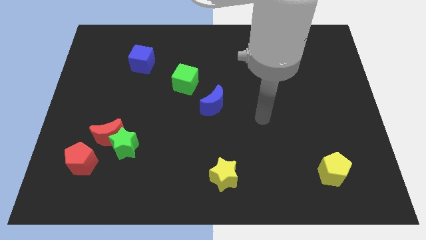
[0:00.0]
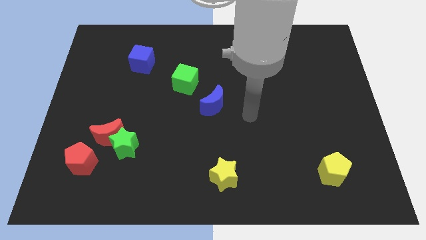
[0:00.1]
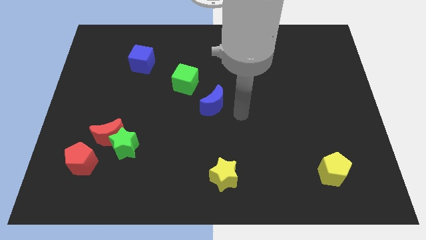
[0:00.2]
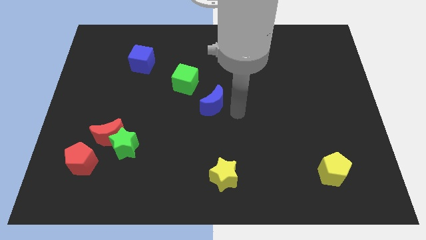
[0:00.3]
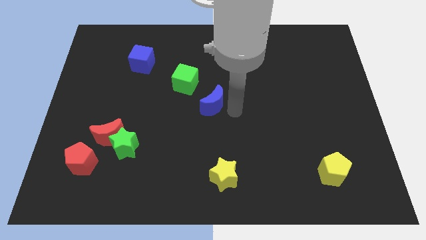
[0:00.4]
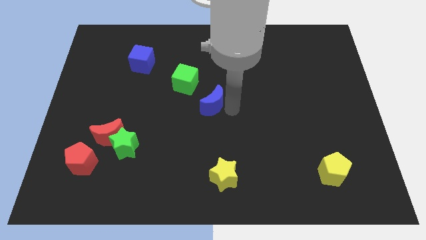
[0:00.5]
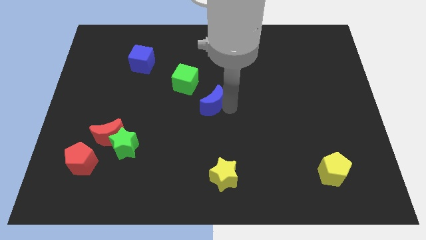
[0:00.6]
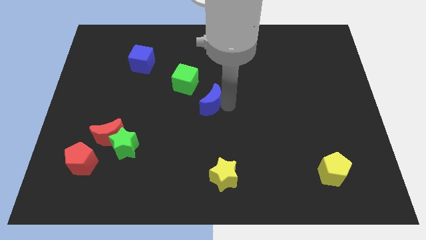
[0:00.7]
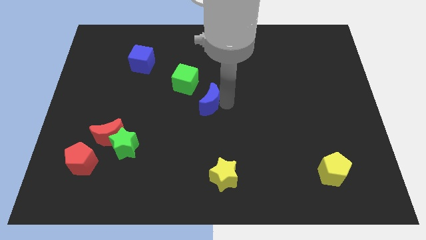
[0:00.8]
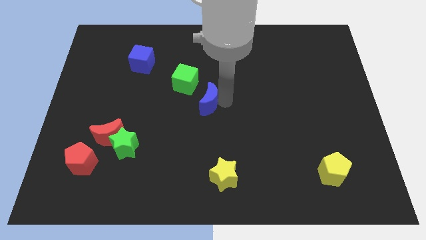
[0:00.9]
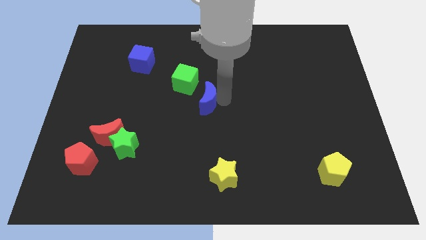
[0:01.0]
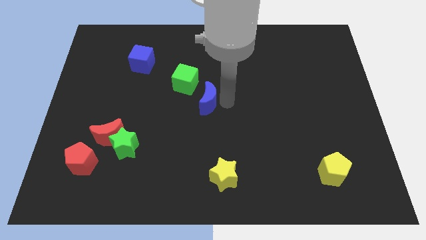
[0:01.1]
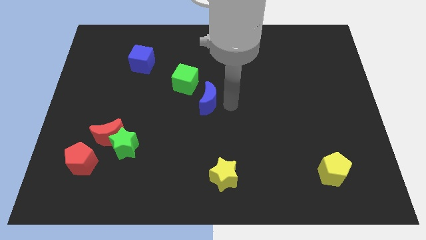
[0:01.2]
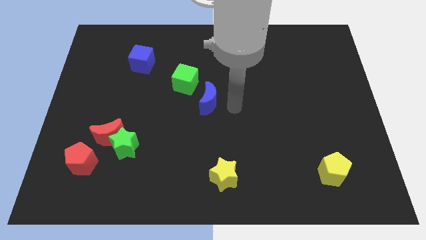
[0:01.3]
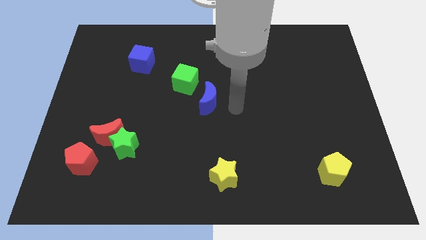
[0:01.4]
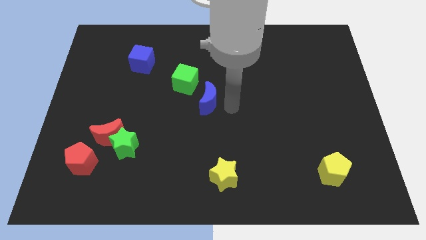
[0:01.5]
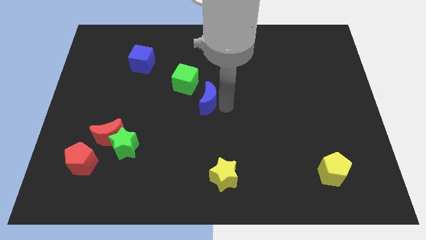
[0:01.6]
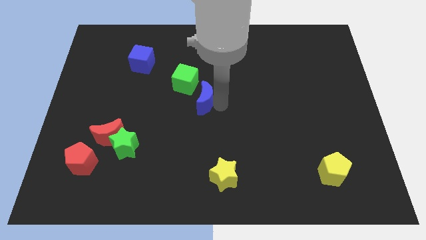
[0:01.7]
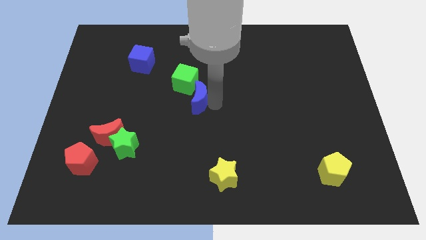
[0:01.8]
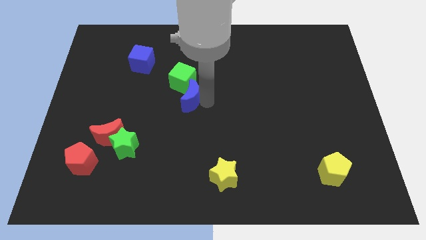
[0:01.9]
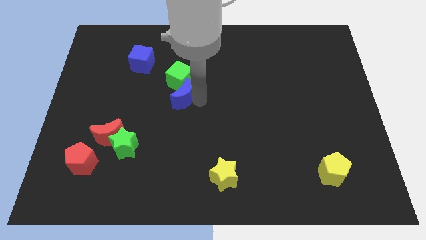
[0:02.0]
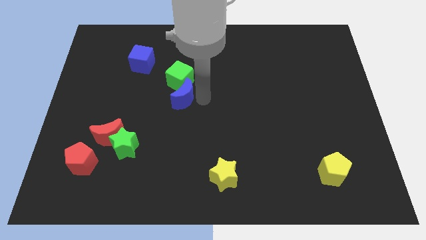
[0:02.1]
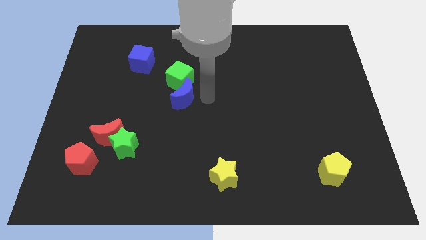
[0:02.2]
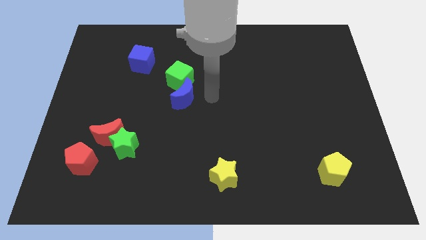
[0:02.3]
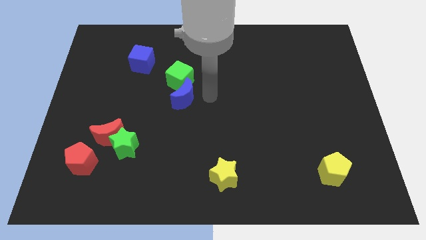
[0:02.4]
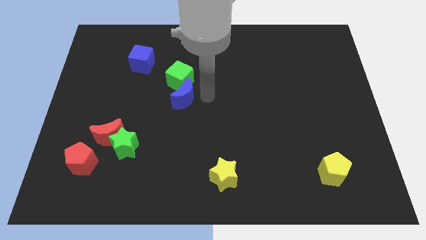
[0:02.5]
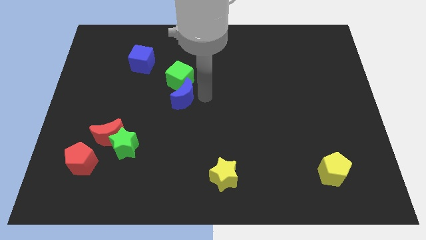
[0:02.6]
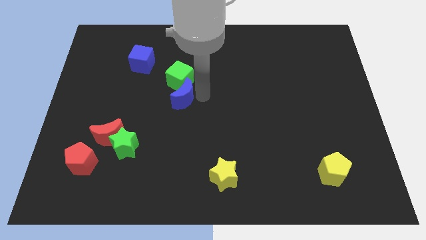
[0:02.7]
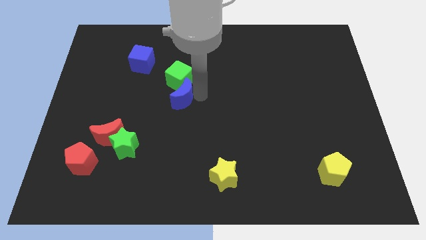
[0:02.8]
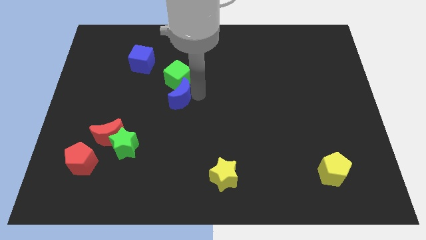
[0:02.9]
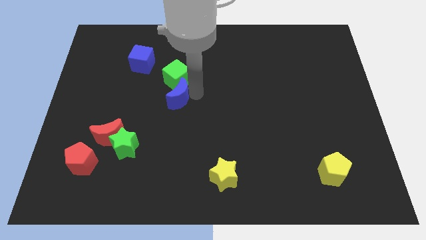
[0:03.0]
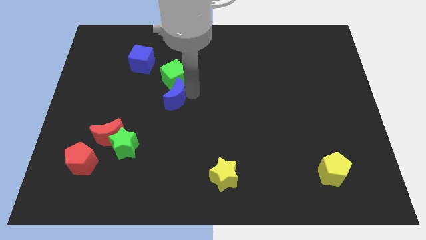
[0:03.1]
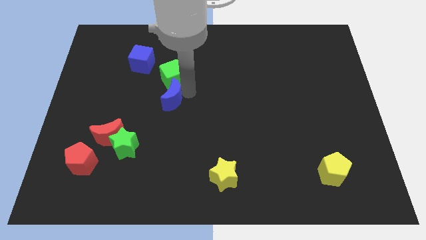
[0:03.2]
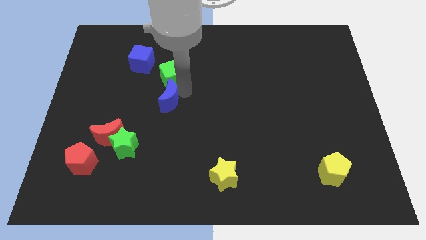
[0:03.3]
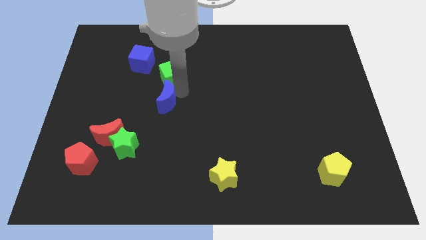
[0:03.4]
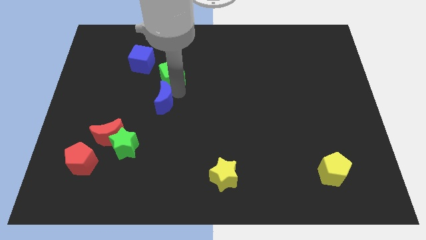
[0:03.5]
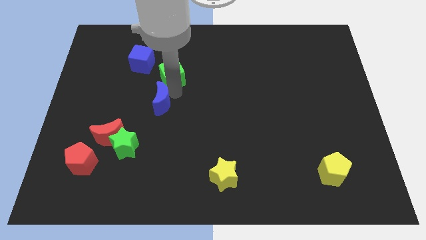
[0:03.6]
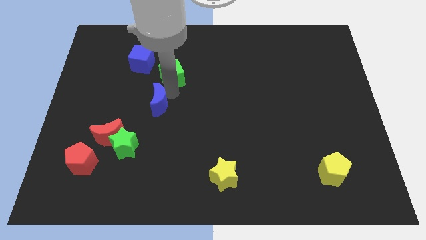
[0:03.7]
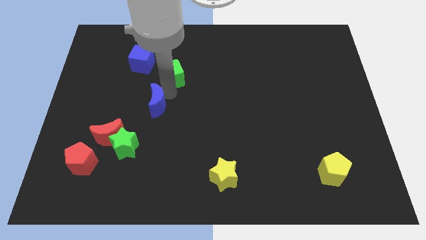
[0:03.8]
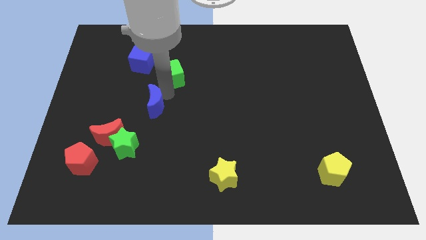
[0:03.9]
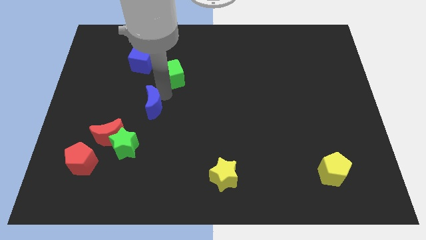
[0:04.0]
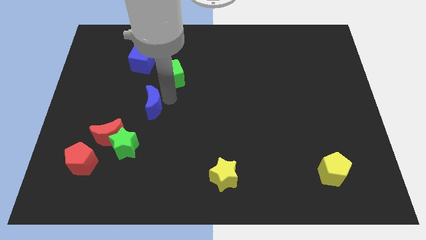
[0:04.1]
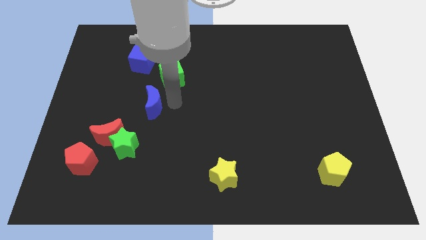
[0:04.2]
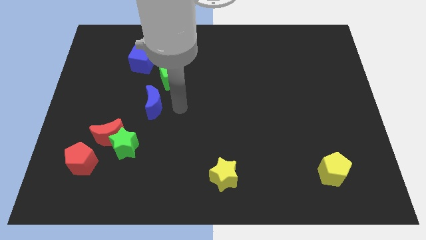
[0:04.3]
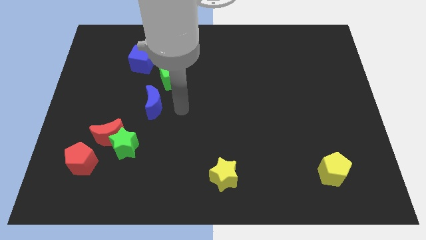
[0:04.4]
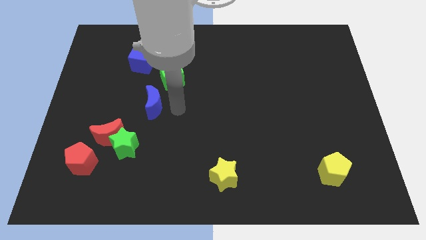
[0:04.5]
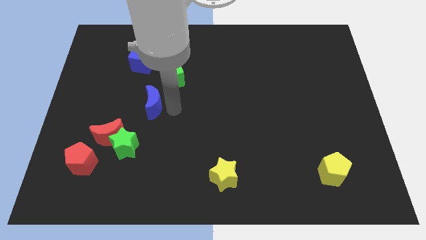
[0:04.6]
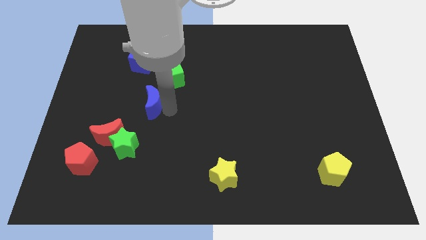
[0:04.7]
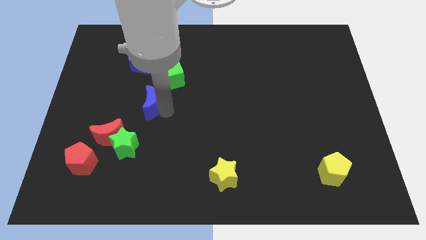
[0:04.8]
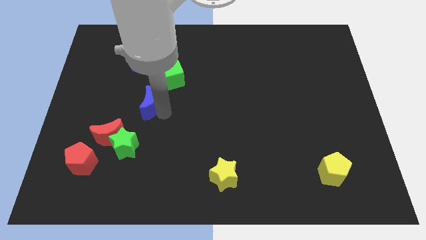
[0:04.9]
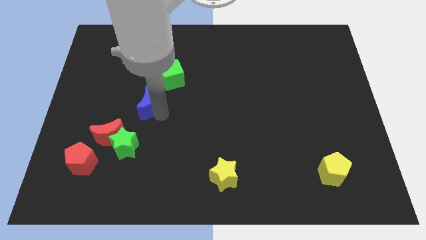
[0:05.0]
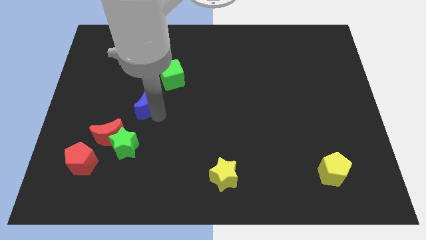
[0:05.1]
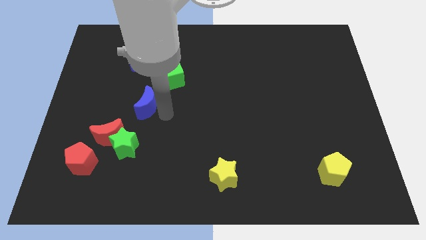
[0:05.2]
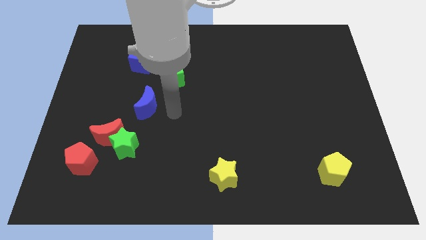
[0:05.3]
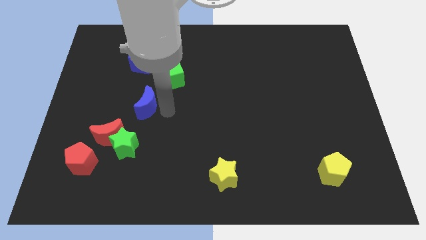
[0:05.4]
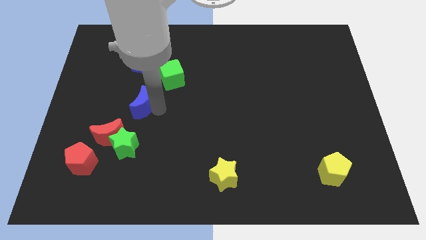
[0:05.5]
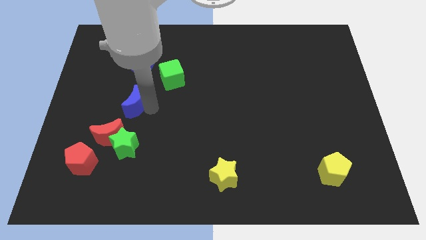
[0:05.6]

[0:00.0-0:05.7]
move the blue moon above the red moon

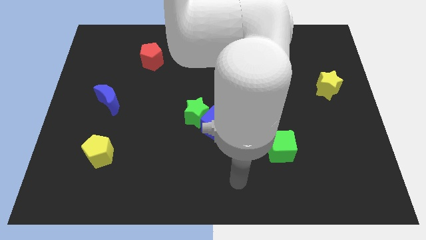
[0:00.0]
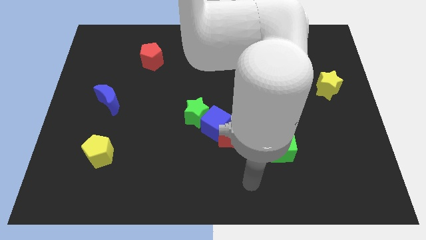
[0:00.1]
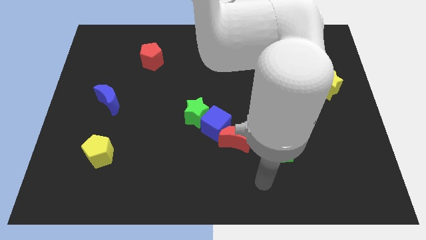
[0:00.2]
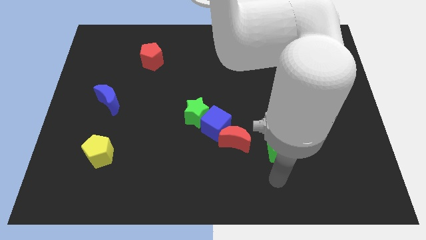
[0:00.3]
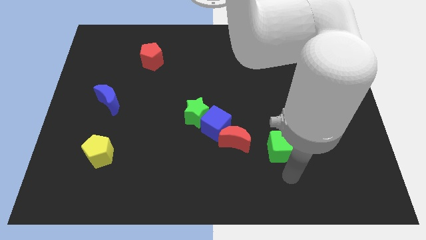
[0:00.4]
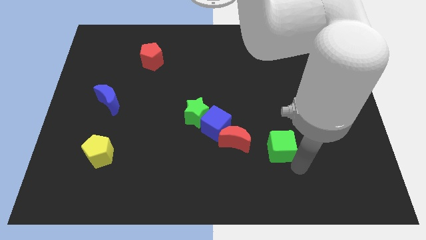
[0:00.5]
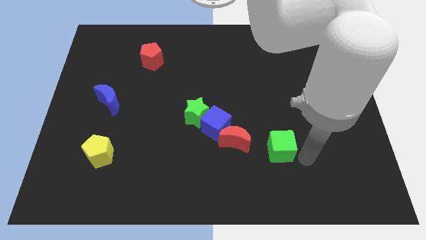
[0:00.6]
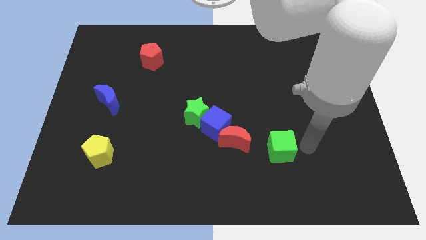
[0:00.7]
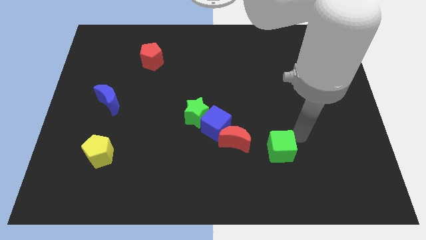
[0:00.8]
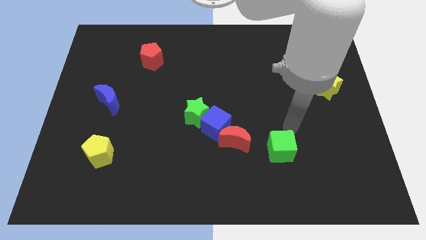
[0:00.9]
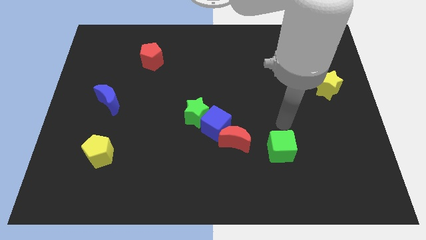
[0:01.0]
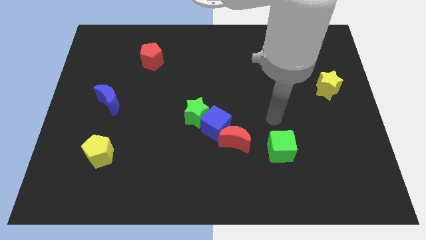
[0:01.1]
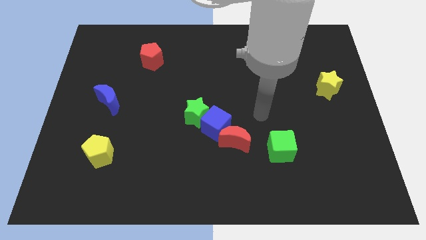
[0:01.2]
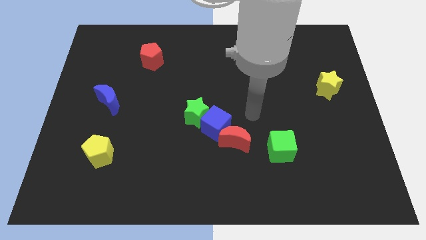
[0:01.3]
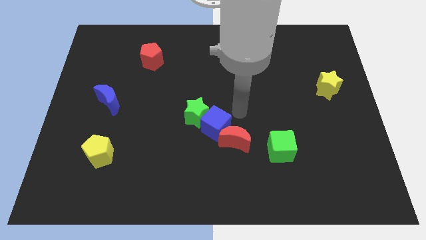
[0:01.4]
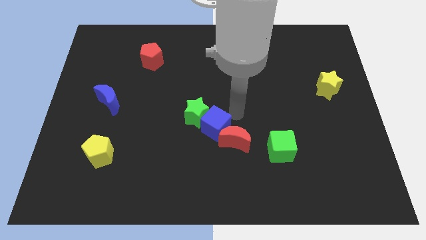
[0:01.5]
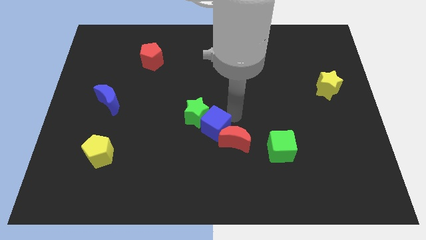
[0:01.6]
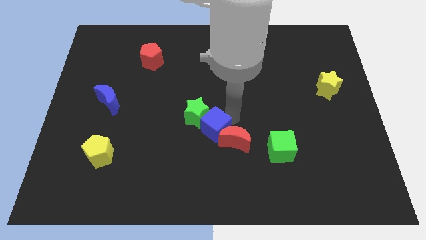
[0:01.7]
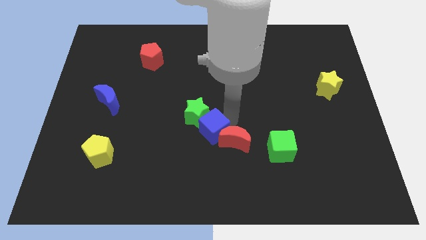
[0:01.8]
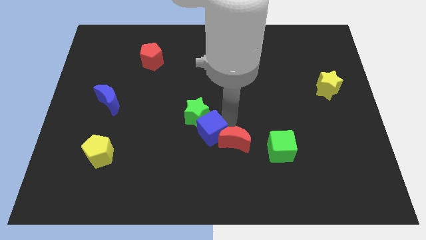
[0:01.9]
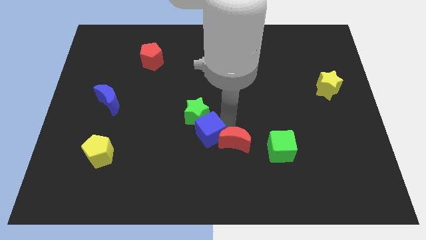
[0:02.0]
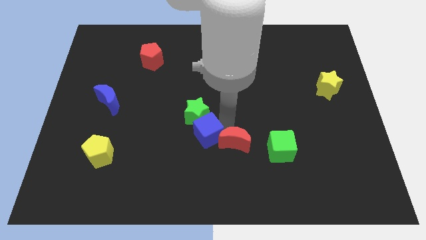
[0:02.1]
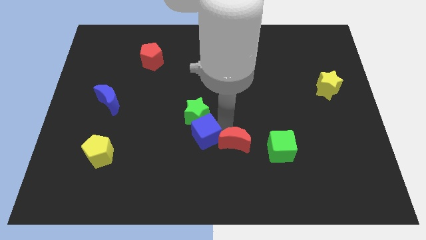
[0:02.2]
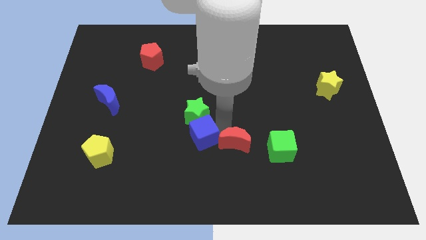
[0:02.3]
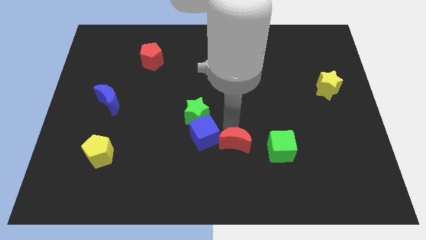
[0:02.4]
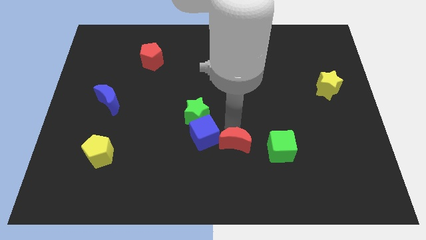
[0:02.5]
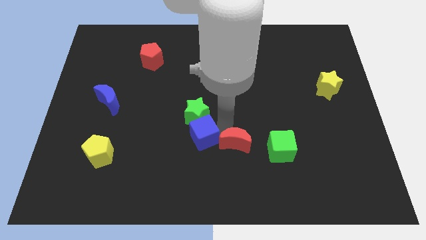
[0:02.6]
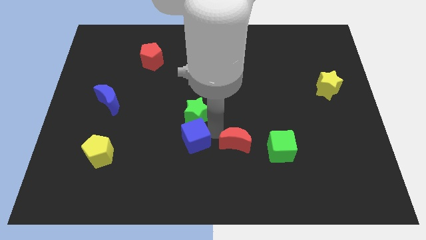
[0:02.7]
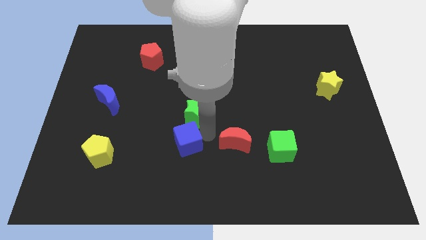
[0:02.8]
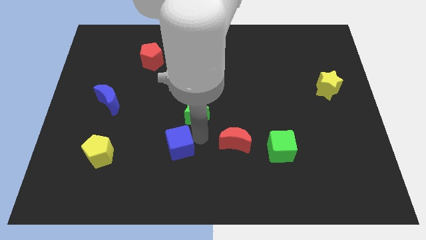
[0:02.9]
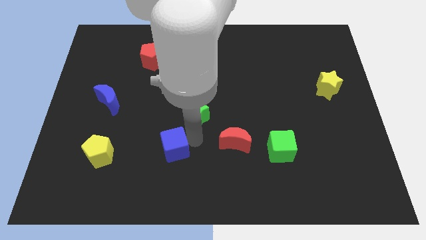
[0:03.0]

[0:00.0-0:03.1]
put the blue cube to the right side of the yellow pentagon
